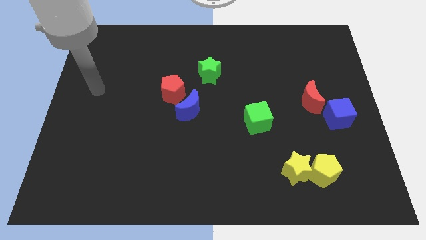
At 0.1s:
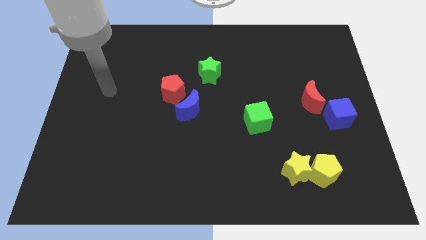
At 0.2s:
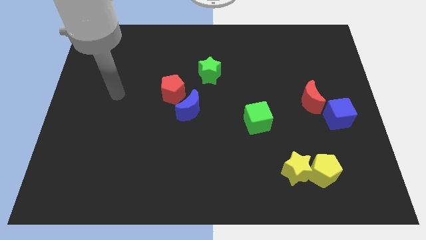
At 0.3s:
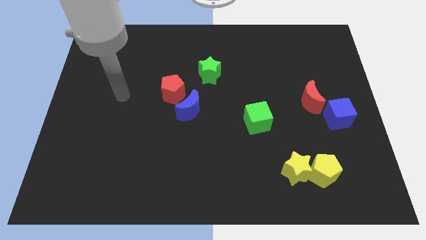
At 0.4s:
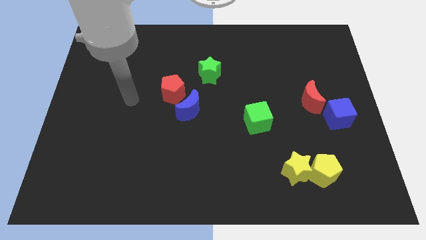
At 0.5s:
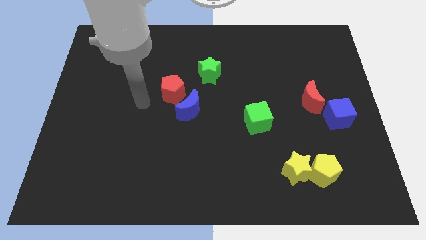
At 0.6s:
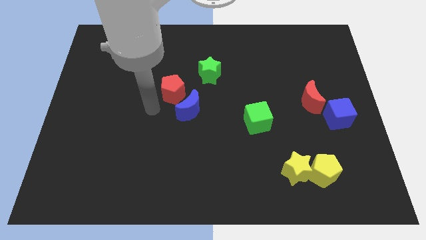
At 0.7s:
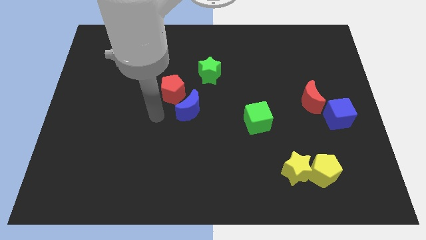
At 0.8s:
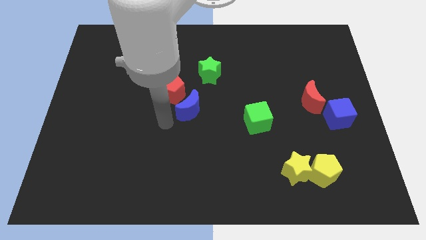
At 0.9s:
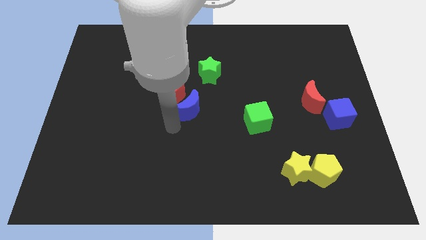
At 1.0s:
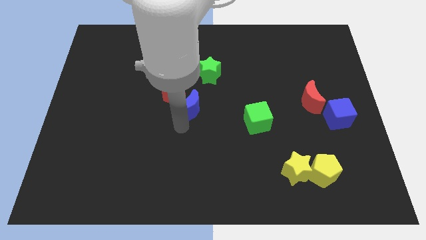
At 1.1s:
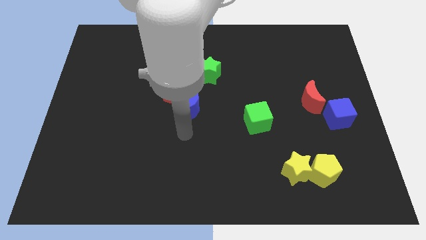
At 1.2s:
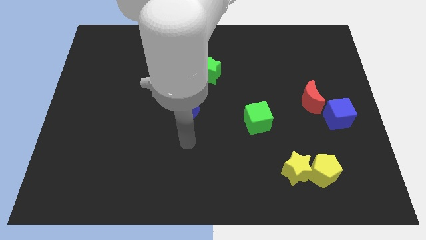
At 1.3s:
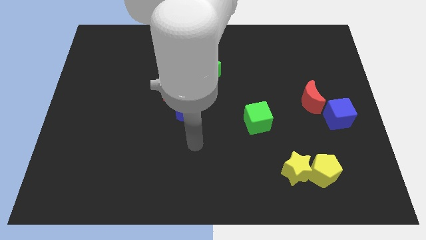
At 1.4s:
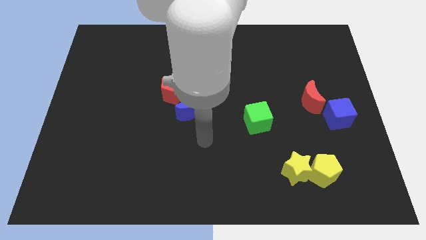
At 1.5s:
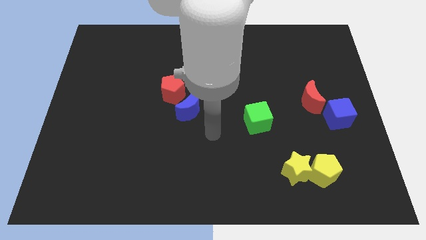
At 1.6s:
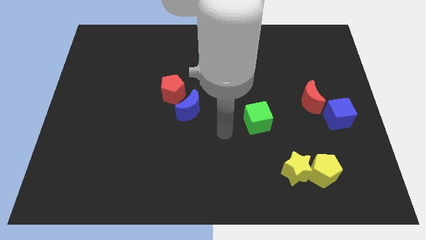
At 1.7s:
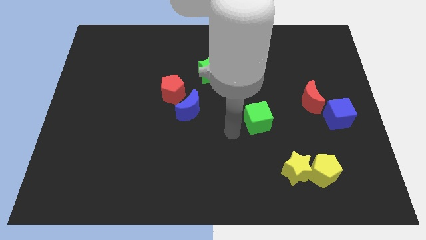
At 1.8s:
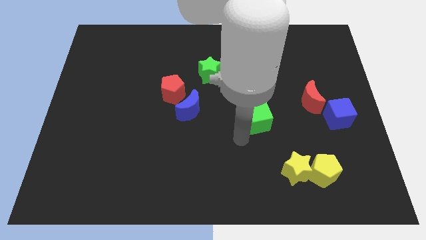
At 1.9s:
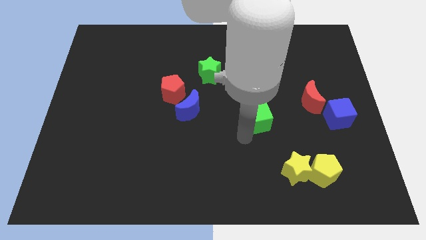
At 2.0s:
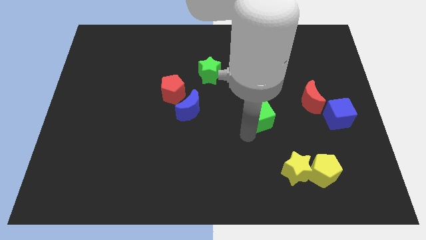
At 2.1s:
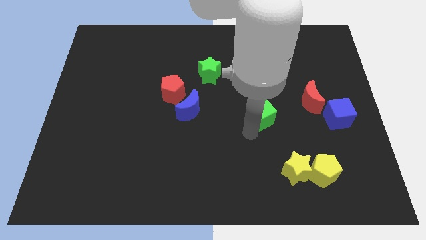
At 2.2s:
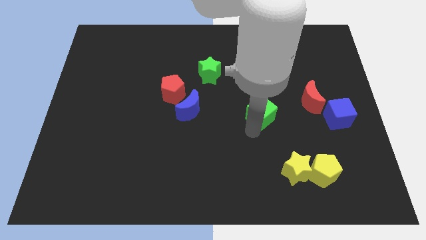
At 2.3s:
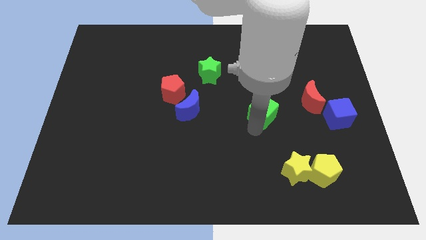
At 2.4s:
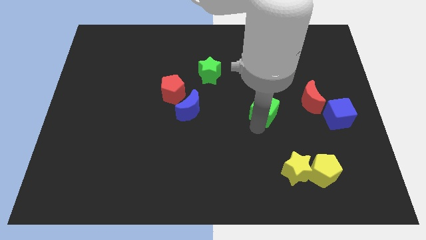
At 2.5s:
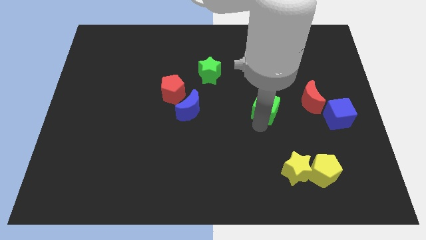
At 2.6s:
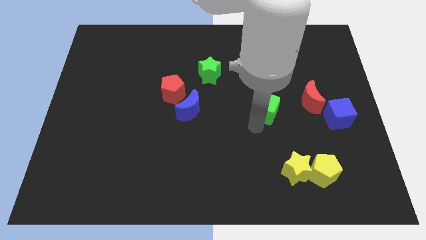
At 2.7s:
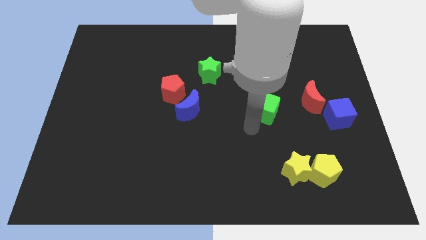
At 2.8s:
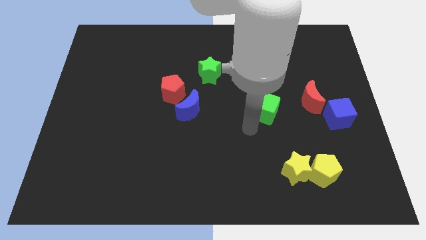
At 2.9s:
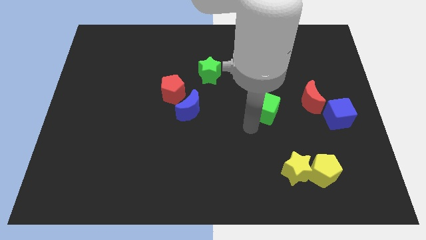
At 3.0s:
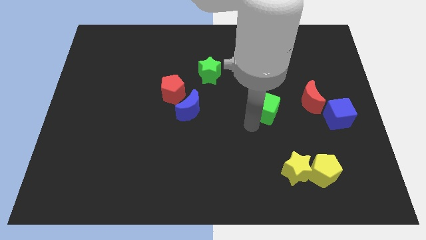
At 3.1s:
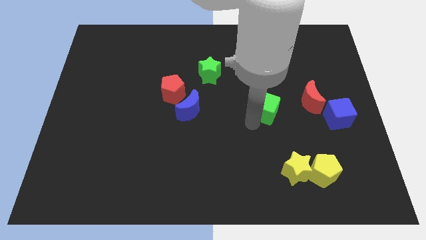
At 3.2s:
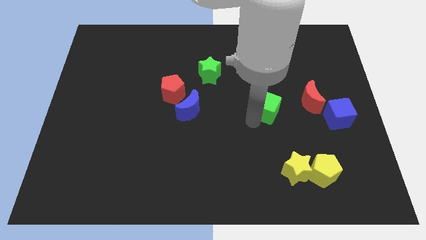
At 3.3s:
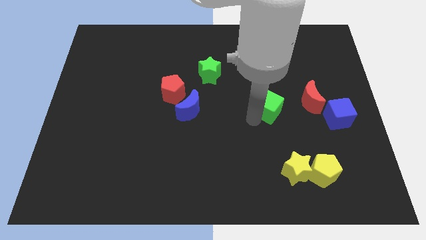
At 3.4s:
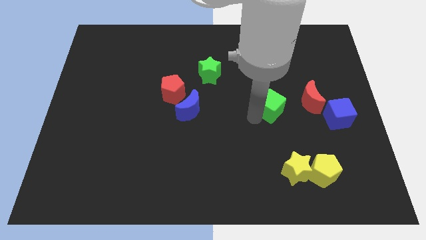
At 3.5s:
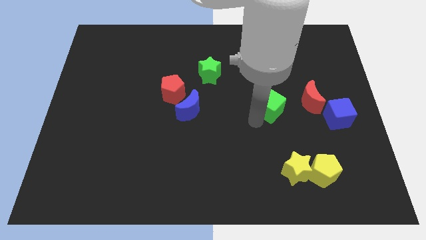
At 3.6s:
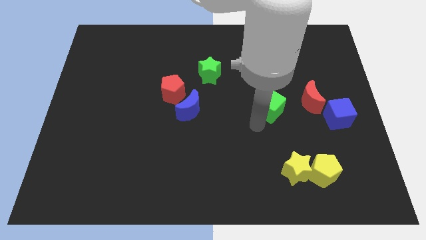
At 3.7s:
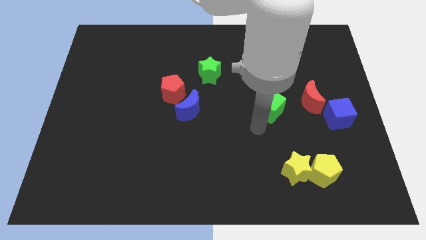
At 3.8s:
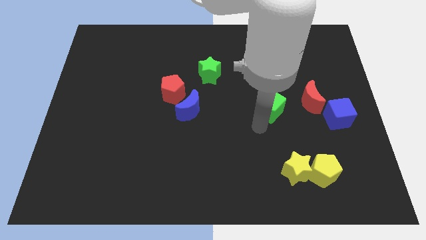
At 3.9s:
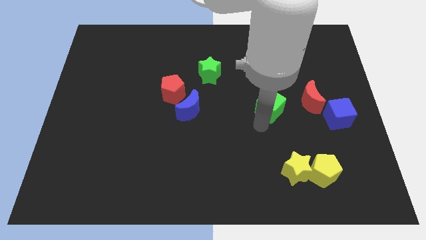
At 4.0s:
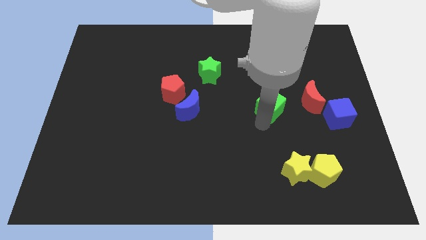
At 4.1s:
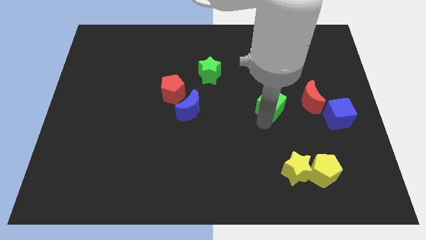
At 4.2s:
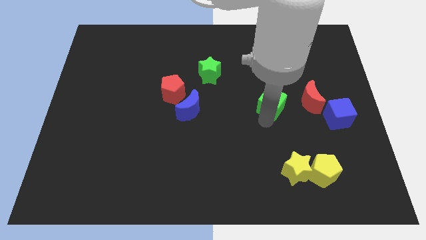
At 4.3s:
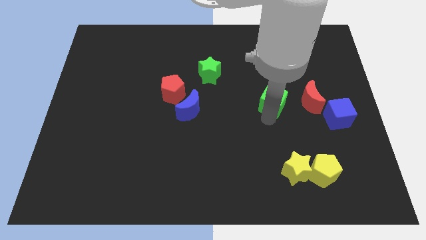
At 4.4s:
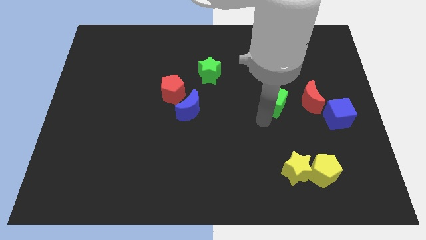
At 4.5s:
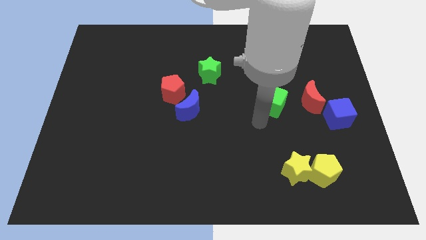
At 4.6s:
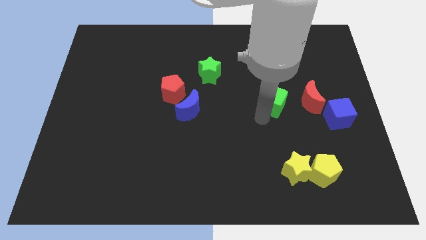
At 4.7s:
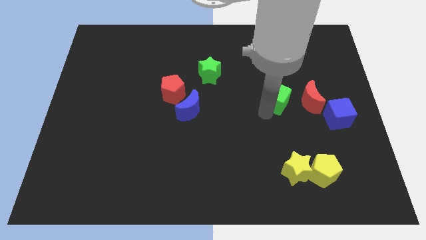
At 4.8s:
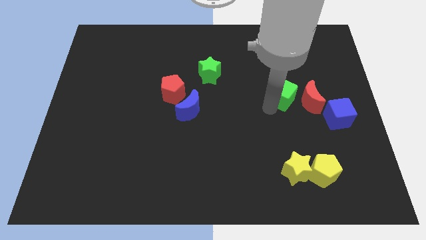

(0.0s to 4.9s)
move the green cube to the top left of the red moon

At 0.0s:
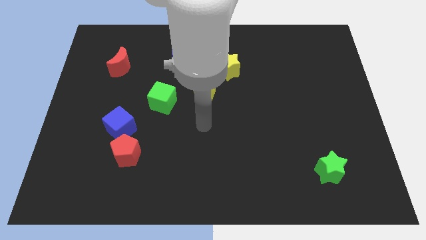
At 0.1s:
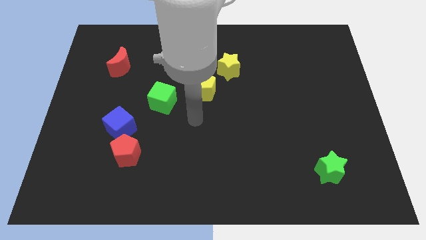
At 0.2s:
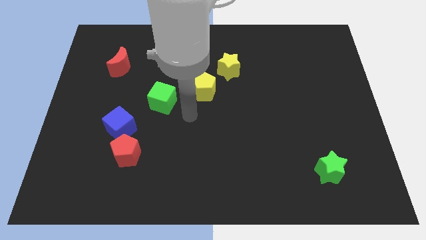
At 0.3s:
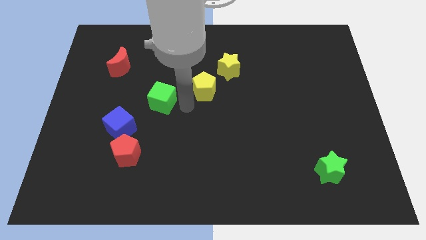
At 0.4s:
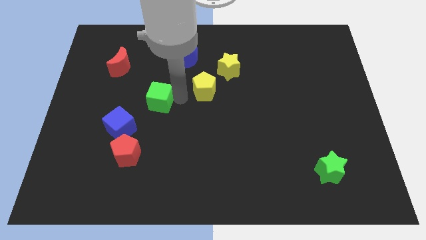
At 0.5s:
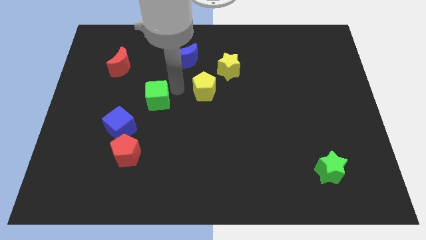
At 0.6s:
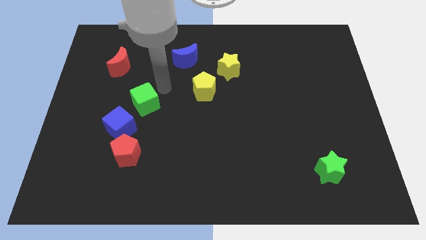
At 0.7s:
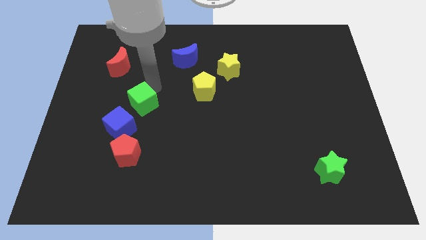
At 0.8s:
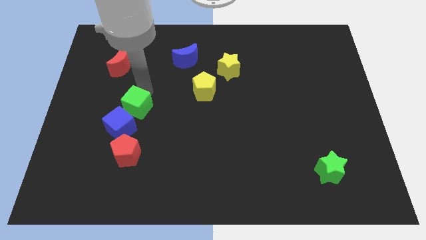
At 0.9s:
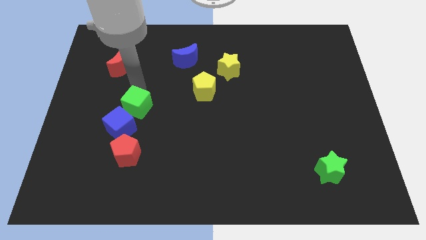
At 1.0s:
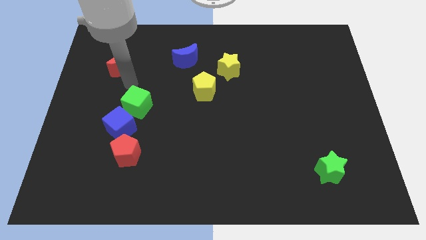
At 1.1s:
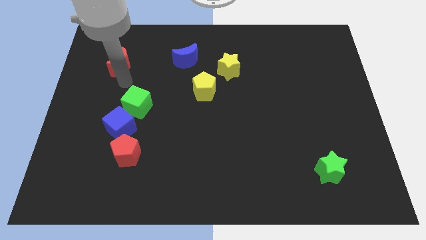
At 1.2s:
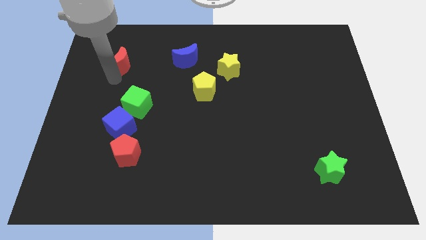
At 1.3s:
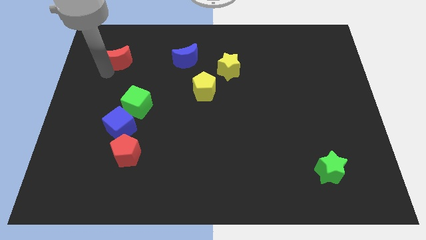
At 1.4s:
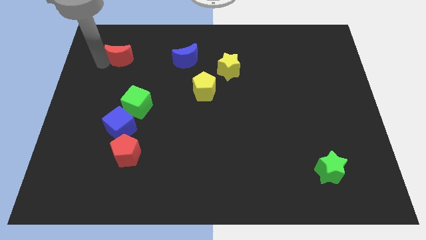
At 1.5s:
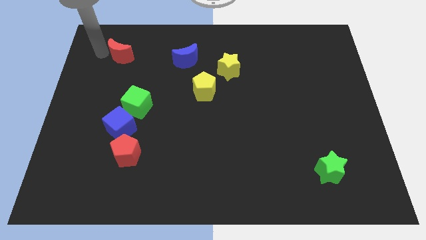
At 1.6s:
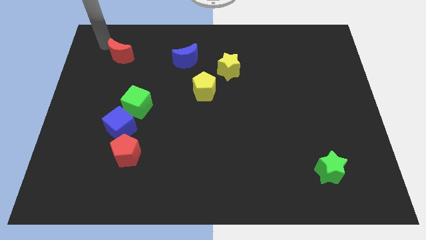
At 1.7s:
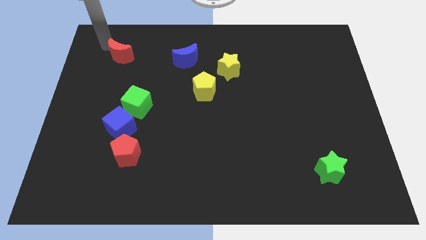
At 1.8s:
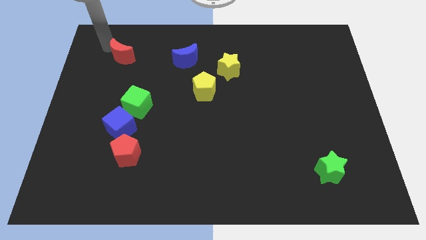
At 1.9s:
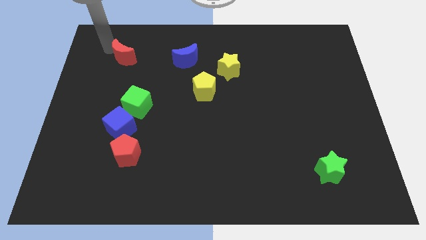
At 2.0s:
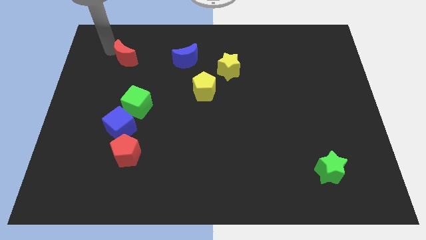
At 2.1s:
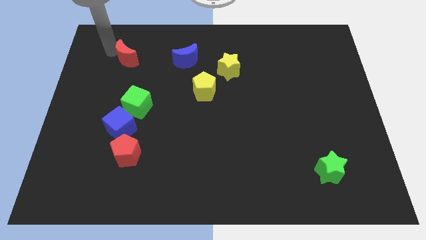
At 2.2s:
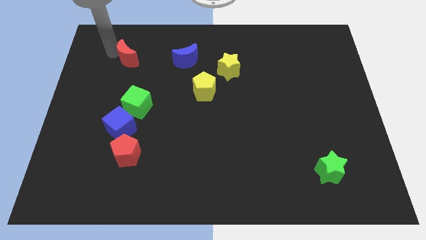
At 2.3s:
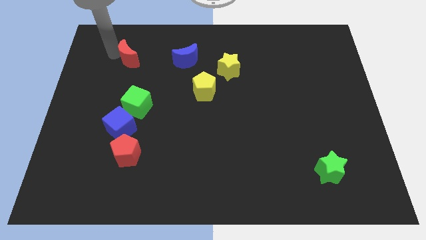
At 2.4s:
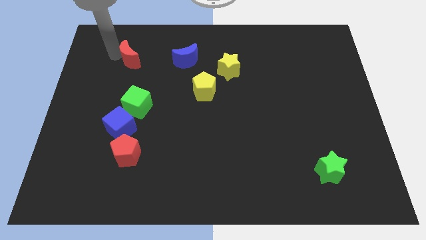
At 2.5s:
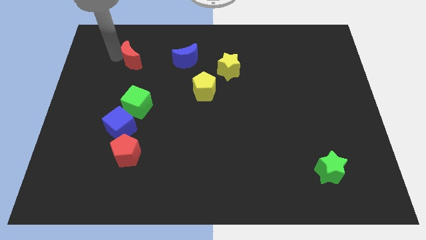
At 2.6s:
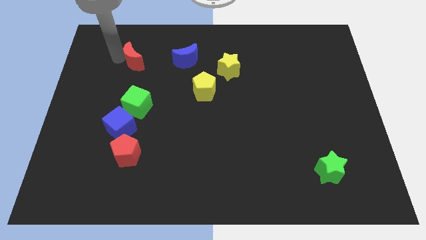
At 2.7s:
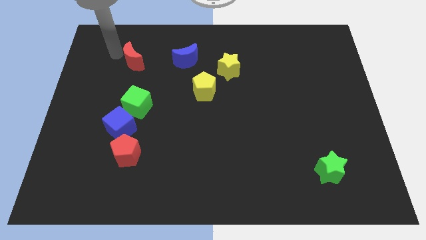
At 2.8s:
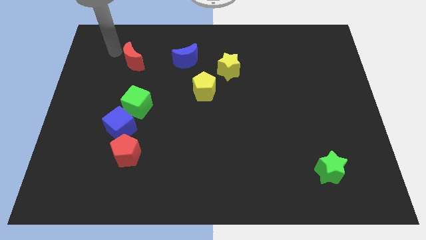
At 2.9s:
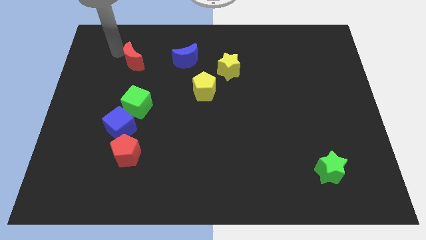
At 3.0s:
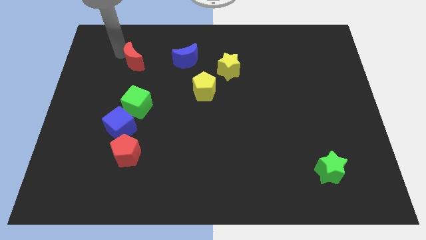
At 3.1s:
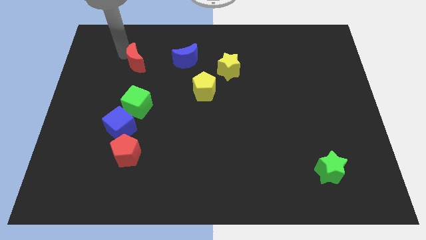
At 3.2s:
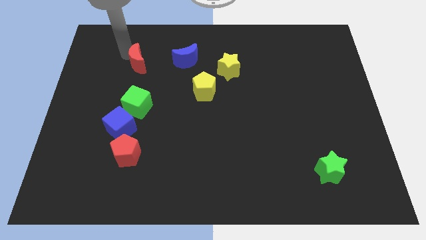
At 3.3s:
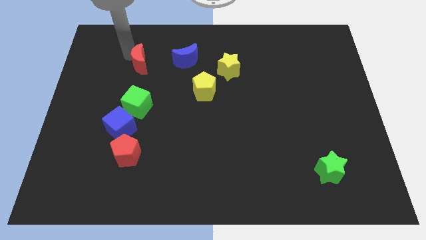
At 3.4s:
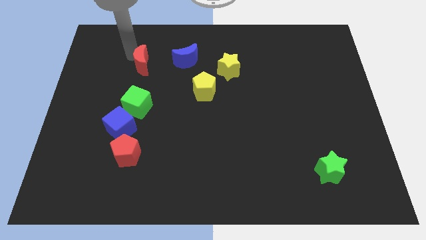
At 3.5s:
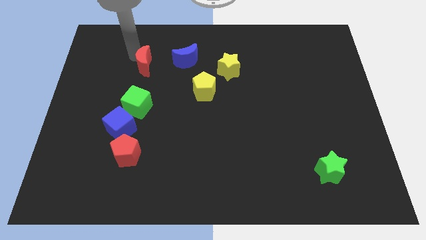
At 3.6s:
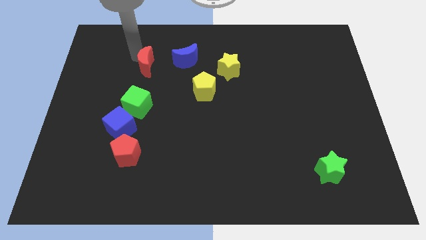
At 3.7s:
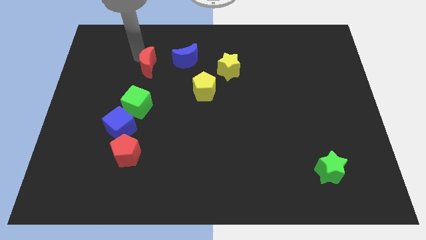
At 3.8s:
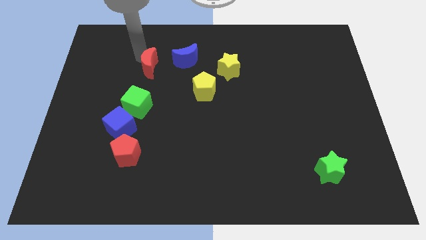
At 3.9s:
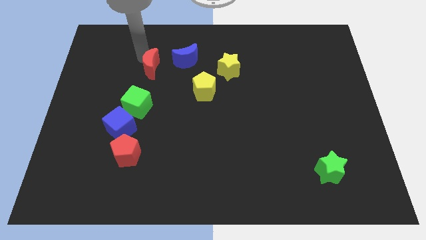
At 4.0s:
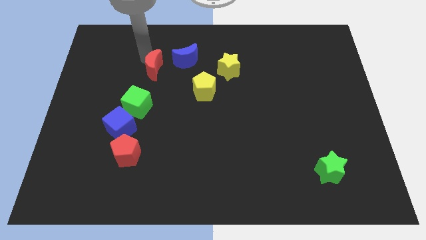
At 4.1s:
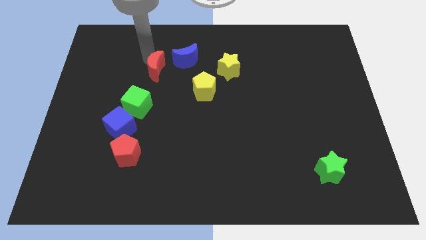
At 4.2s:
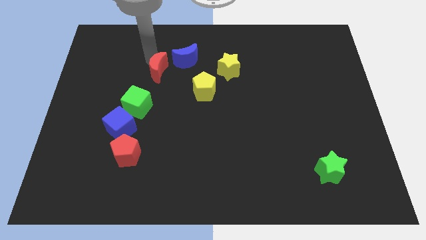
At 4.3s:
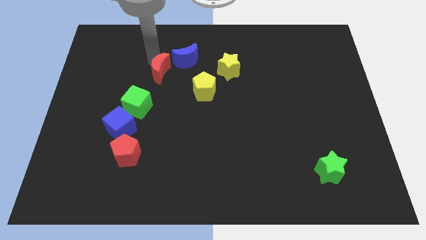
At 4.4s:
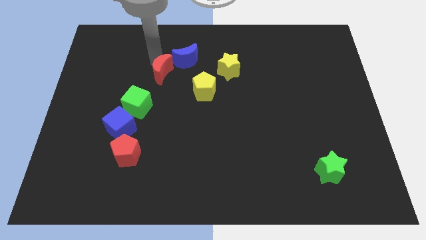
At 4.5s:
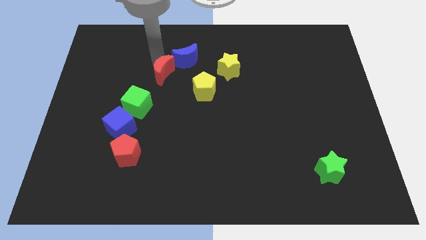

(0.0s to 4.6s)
slide the red moon diagonally up and to the right of the green cube
